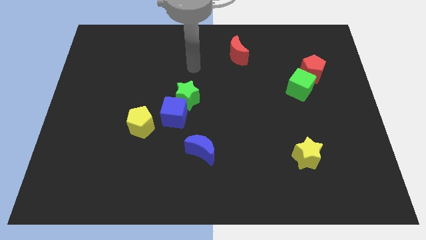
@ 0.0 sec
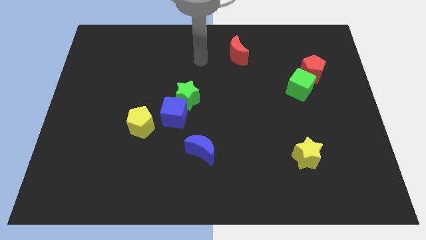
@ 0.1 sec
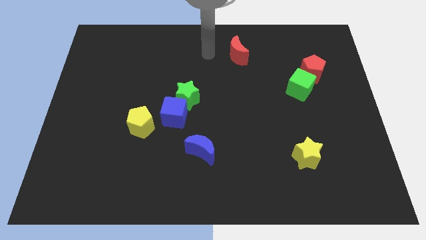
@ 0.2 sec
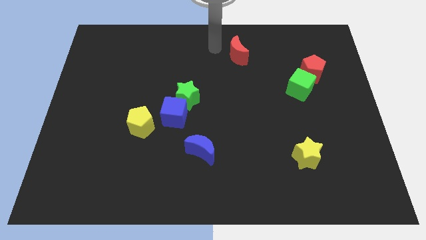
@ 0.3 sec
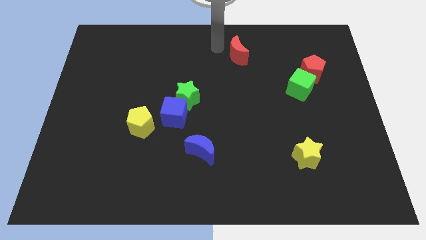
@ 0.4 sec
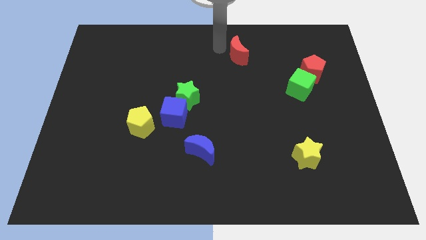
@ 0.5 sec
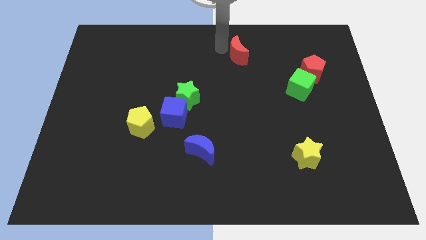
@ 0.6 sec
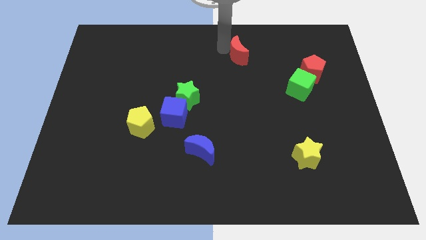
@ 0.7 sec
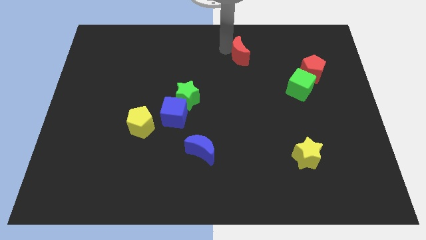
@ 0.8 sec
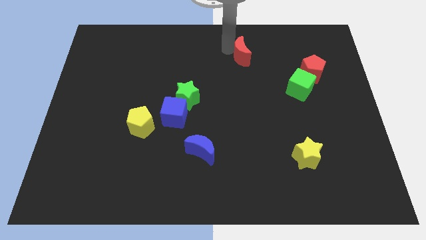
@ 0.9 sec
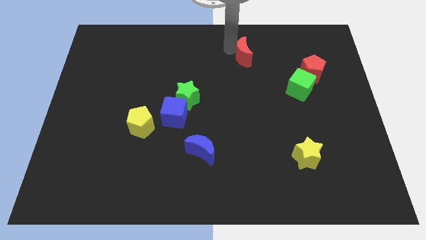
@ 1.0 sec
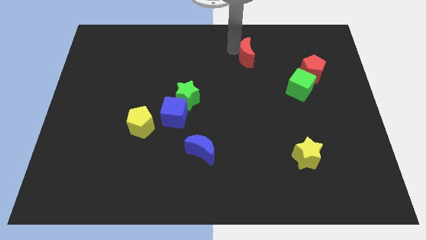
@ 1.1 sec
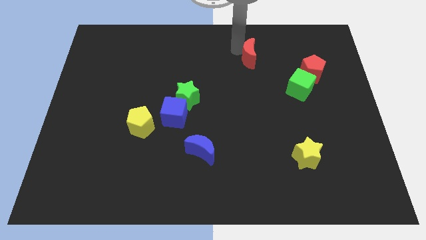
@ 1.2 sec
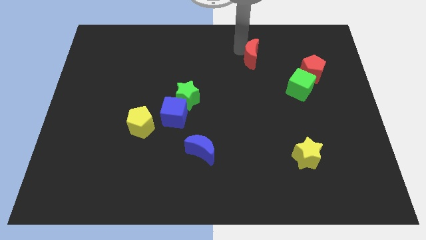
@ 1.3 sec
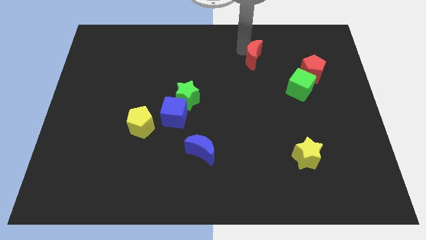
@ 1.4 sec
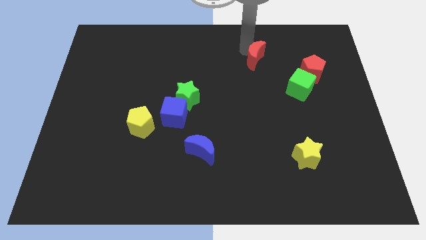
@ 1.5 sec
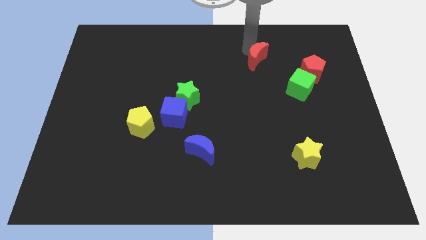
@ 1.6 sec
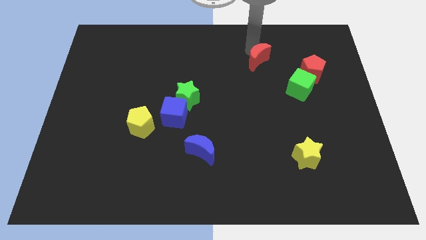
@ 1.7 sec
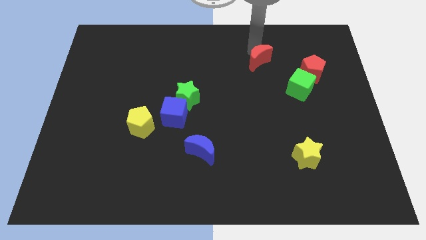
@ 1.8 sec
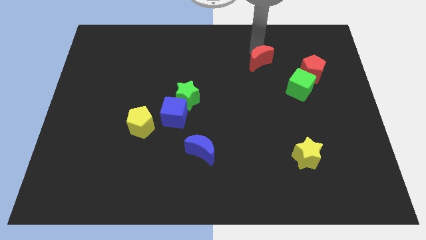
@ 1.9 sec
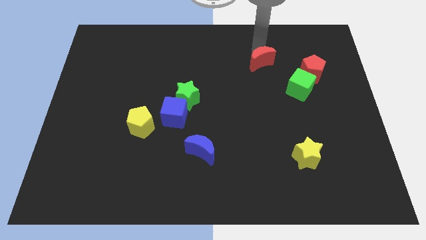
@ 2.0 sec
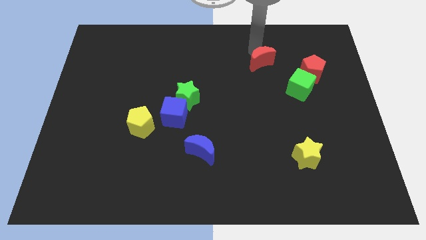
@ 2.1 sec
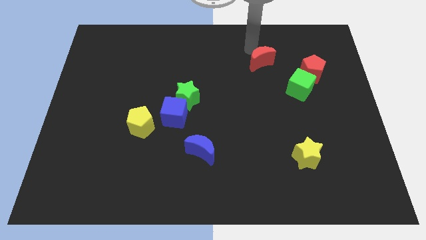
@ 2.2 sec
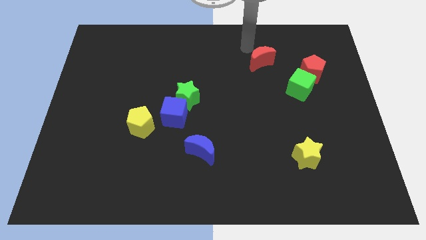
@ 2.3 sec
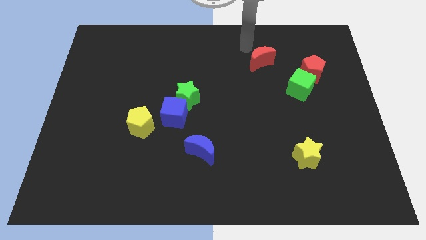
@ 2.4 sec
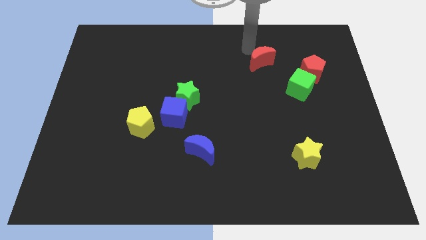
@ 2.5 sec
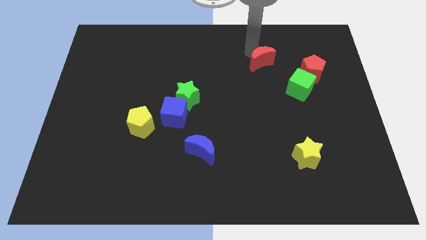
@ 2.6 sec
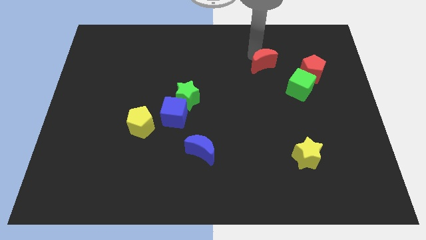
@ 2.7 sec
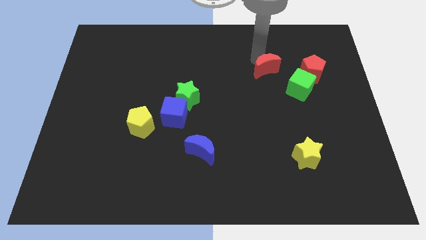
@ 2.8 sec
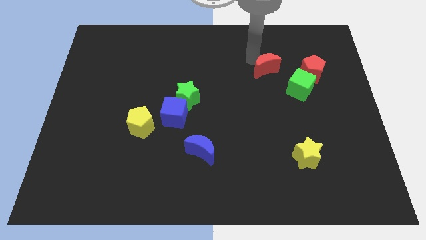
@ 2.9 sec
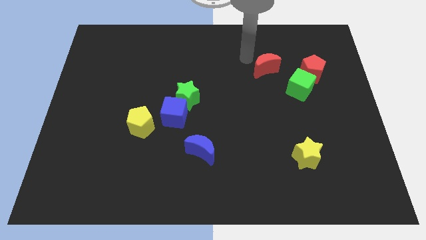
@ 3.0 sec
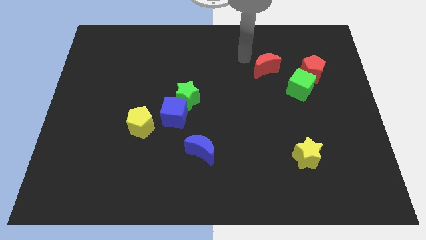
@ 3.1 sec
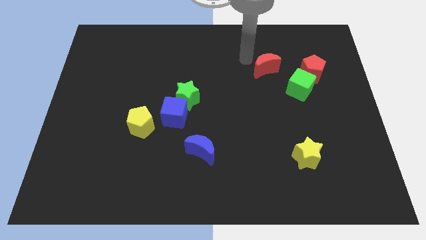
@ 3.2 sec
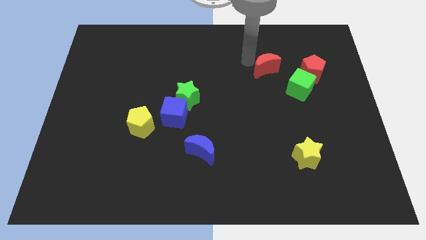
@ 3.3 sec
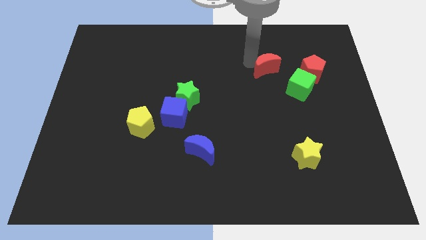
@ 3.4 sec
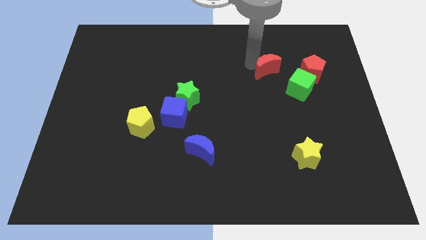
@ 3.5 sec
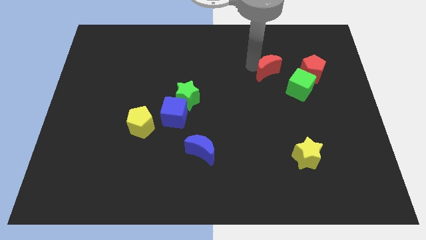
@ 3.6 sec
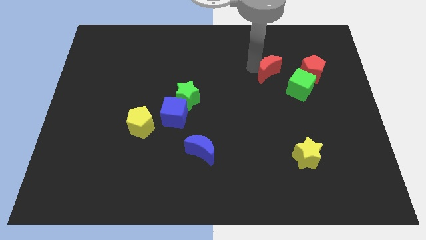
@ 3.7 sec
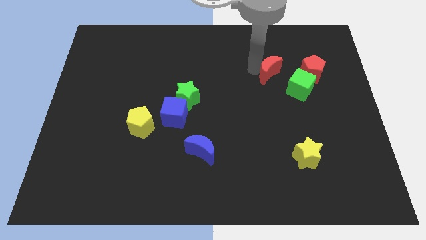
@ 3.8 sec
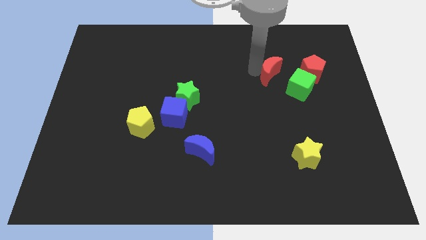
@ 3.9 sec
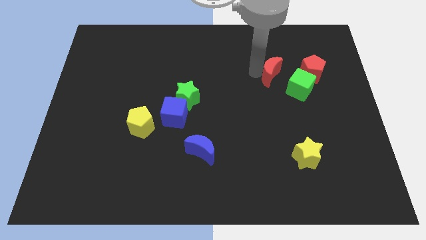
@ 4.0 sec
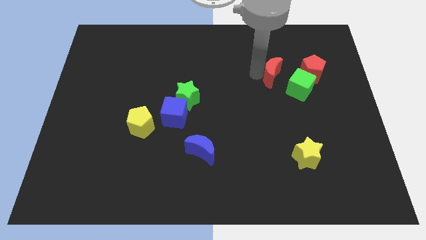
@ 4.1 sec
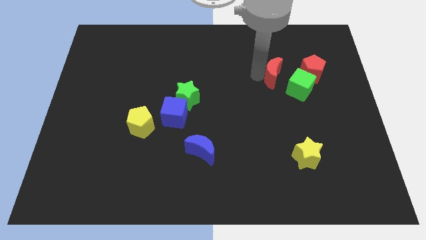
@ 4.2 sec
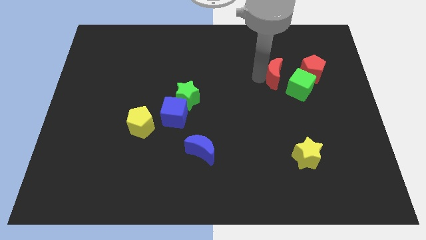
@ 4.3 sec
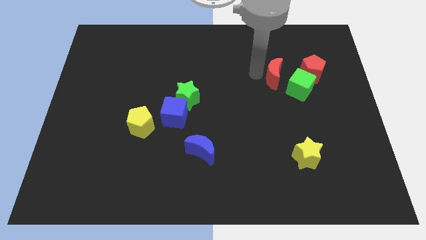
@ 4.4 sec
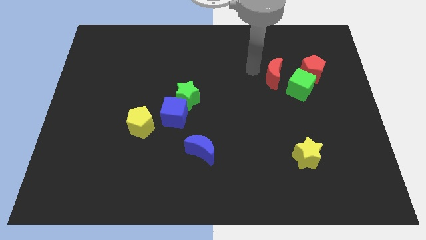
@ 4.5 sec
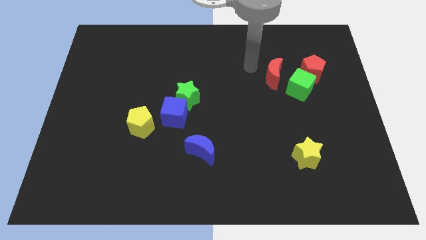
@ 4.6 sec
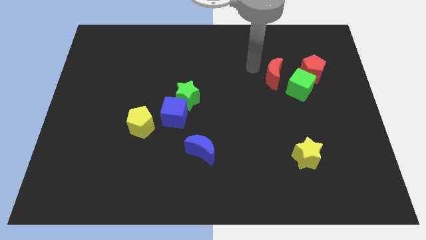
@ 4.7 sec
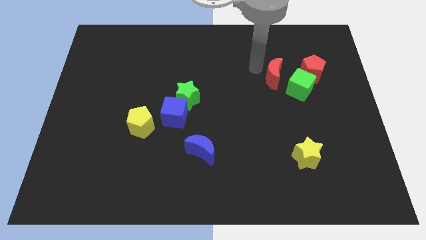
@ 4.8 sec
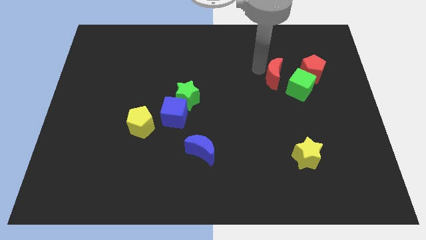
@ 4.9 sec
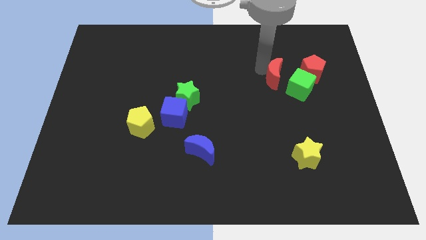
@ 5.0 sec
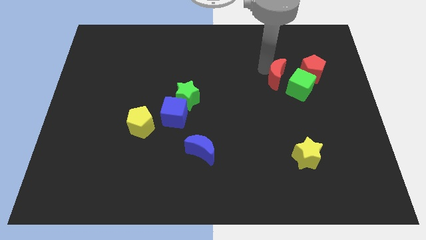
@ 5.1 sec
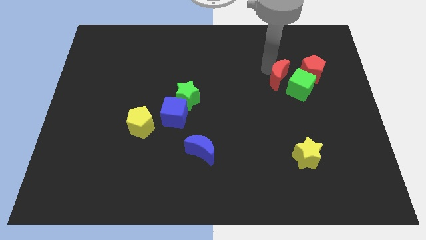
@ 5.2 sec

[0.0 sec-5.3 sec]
move the red moon towards the green cube

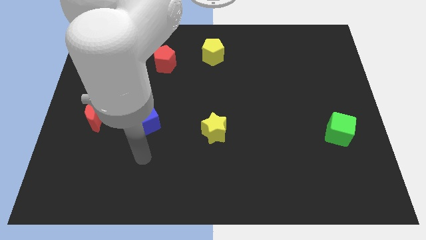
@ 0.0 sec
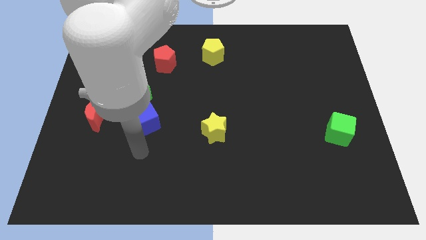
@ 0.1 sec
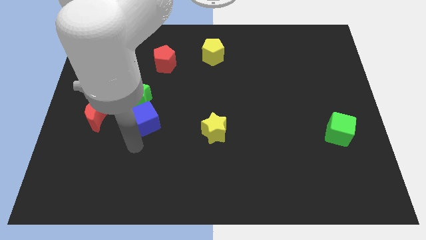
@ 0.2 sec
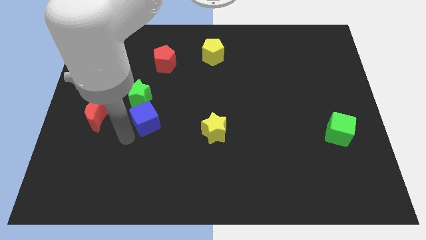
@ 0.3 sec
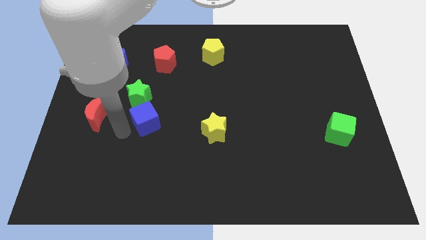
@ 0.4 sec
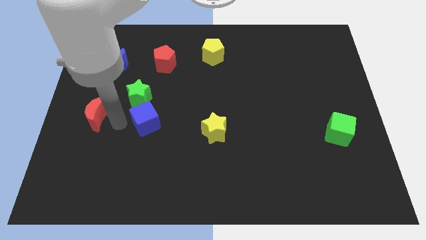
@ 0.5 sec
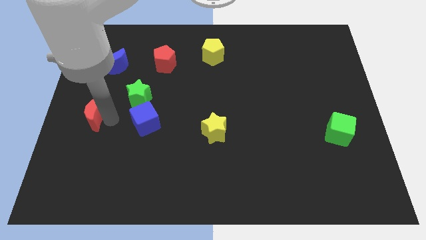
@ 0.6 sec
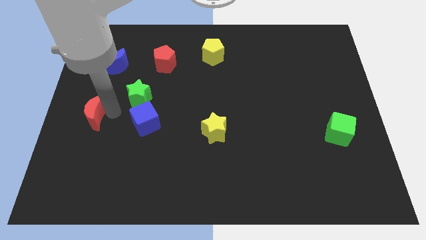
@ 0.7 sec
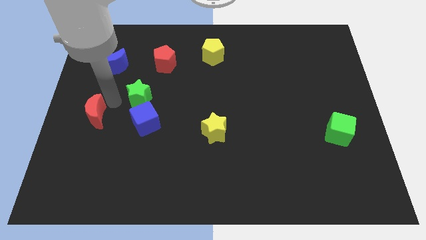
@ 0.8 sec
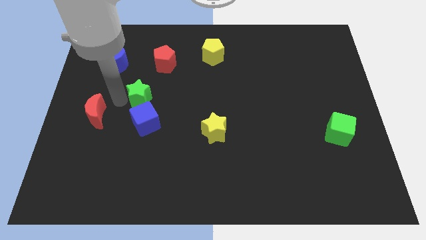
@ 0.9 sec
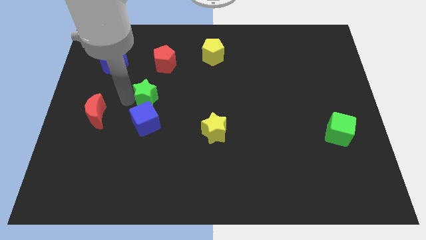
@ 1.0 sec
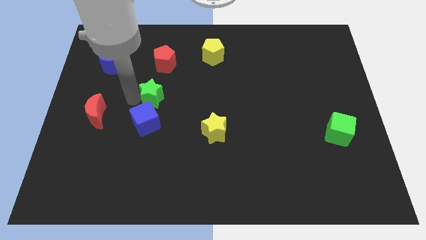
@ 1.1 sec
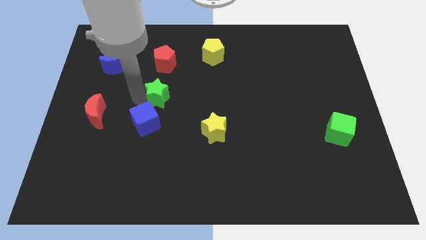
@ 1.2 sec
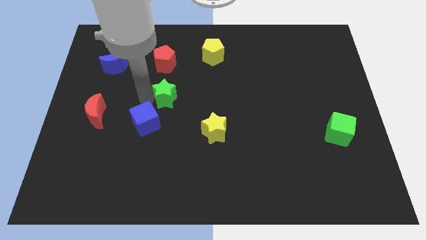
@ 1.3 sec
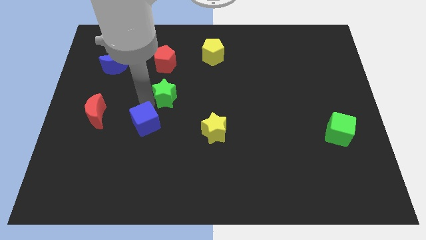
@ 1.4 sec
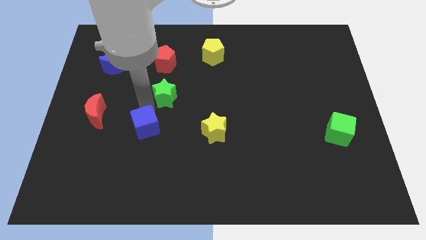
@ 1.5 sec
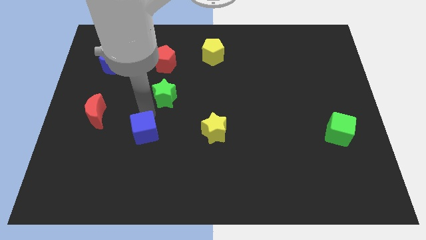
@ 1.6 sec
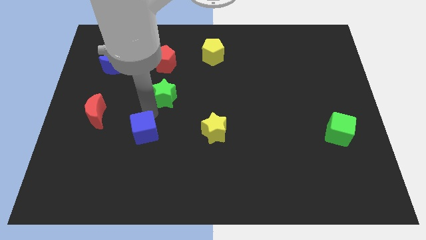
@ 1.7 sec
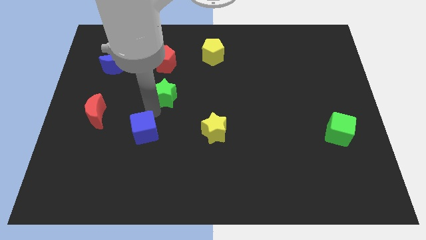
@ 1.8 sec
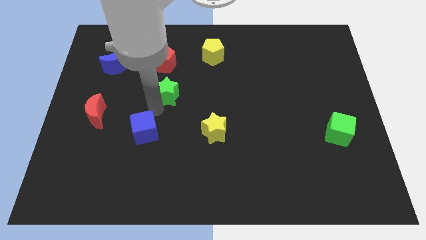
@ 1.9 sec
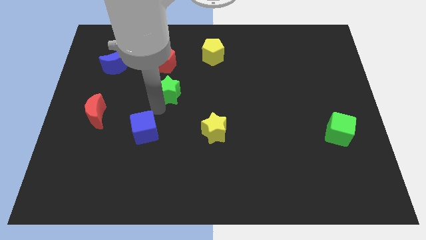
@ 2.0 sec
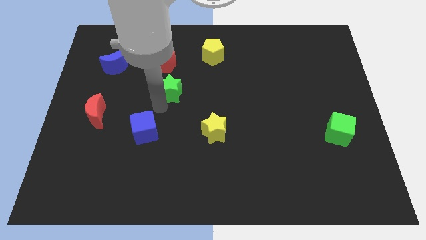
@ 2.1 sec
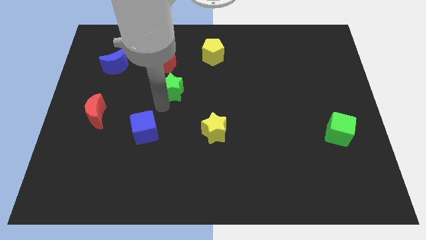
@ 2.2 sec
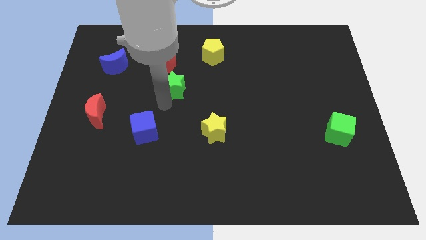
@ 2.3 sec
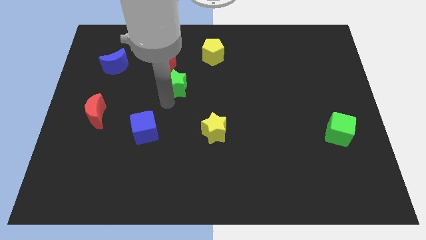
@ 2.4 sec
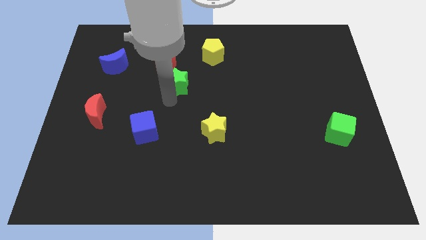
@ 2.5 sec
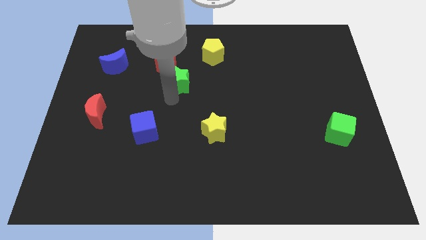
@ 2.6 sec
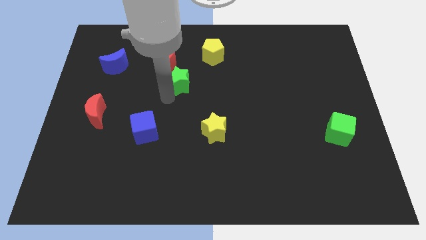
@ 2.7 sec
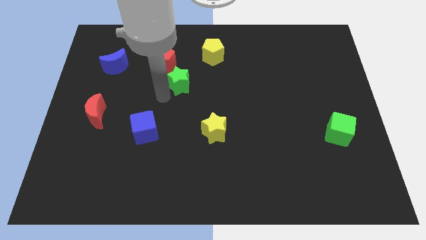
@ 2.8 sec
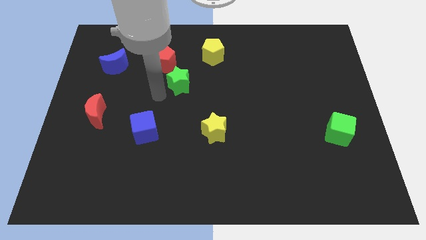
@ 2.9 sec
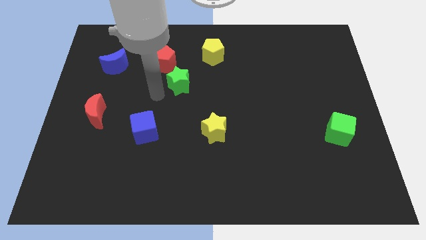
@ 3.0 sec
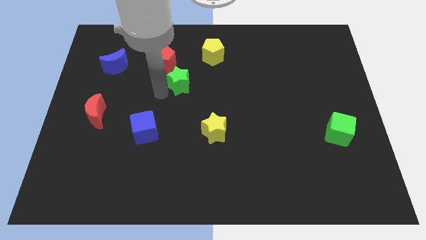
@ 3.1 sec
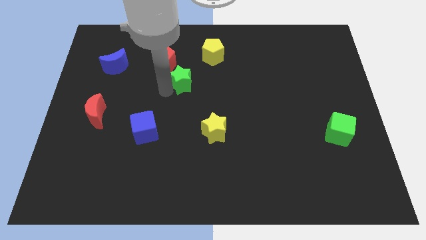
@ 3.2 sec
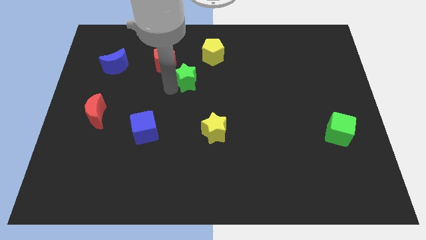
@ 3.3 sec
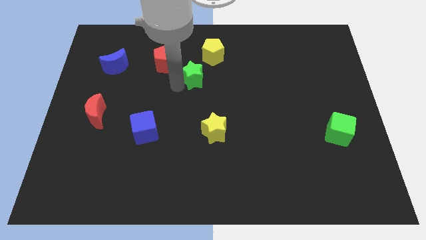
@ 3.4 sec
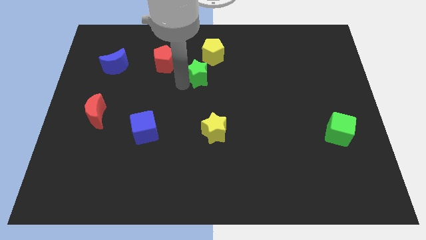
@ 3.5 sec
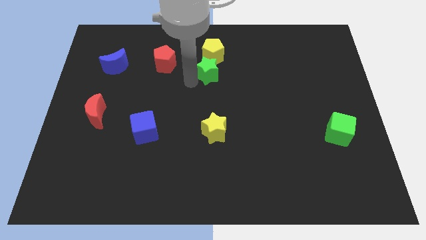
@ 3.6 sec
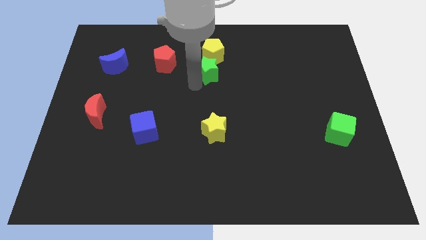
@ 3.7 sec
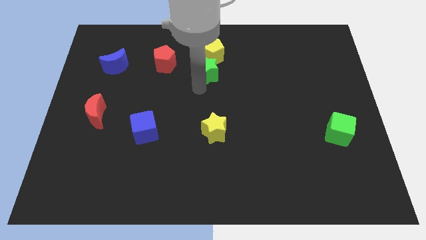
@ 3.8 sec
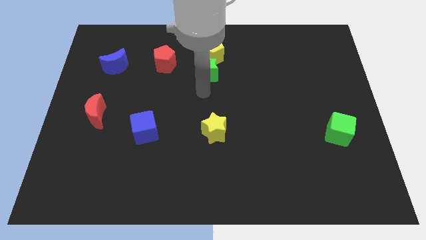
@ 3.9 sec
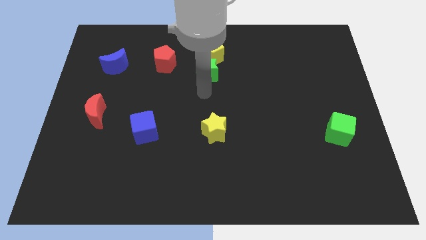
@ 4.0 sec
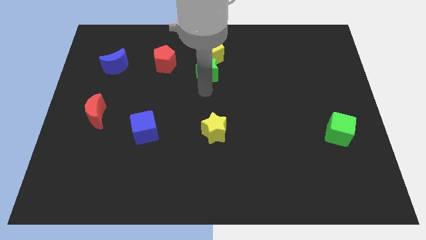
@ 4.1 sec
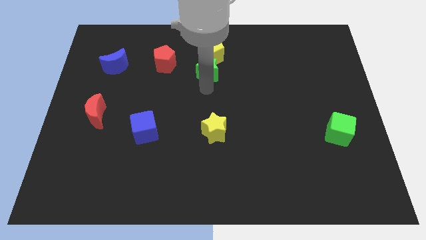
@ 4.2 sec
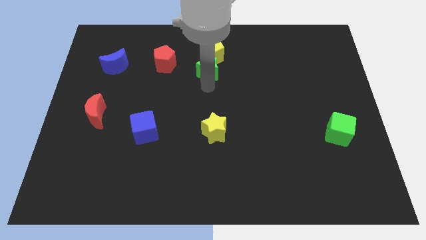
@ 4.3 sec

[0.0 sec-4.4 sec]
slide the green star close to the yellow pentagon
